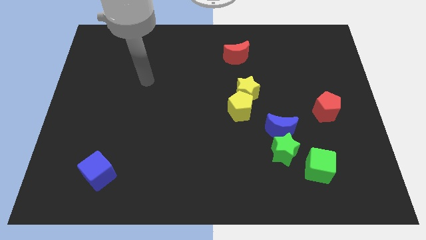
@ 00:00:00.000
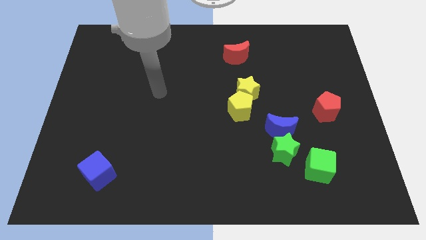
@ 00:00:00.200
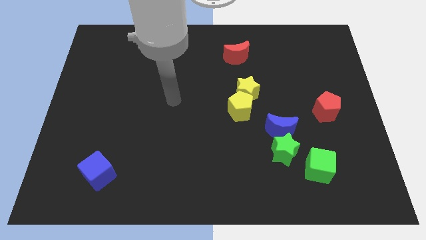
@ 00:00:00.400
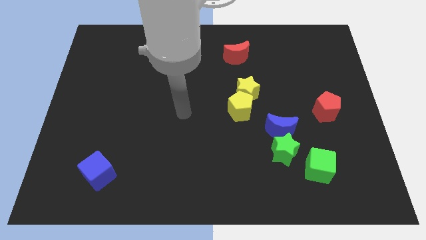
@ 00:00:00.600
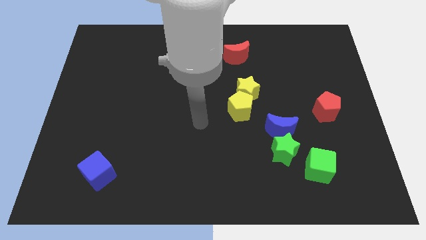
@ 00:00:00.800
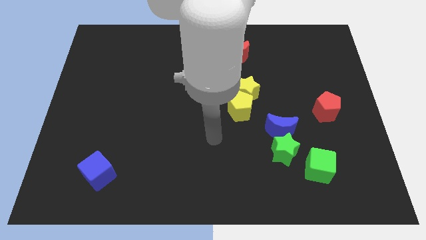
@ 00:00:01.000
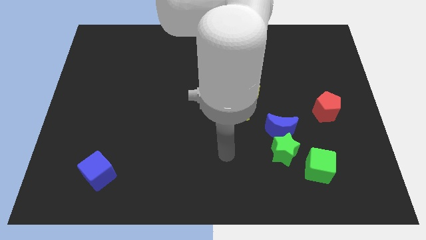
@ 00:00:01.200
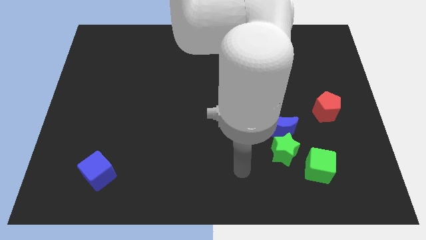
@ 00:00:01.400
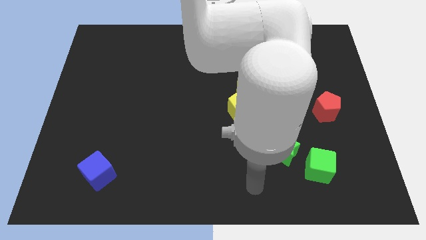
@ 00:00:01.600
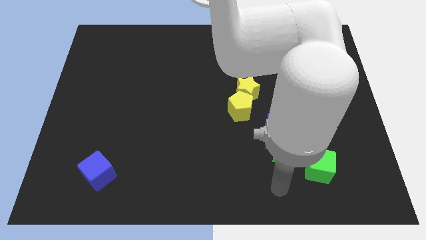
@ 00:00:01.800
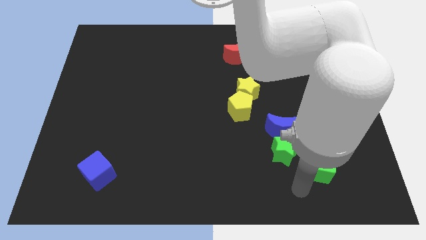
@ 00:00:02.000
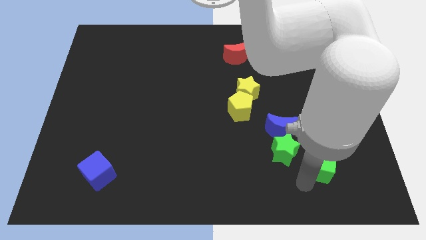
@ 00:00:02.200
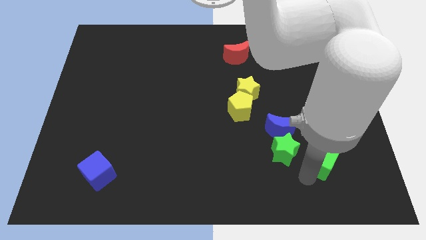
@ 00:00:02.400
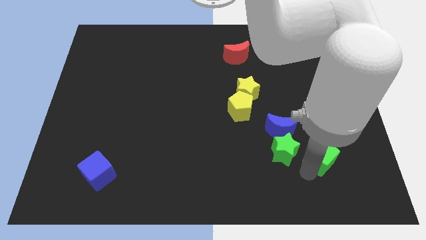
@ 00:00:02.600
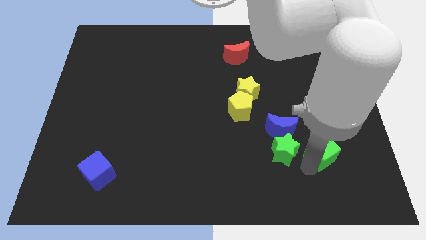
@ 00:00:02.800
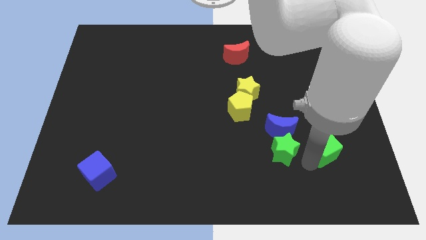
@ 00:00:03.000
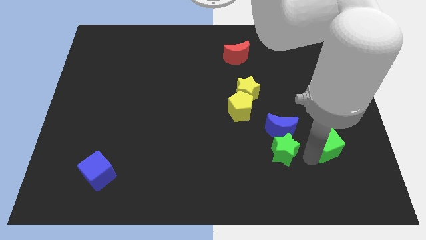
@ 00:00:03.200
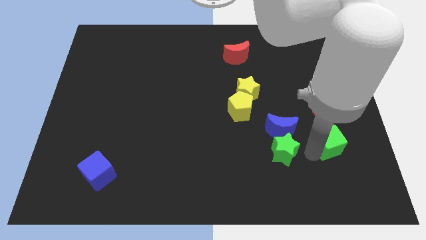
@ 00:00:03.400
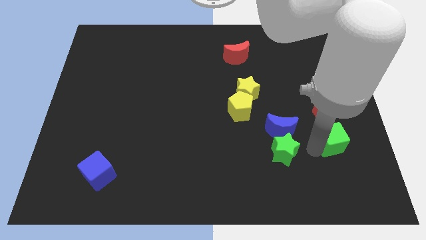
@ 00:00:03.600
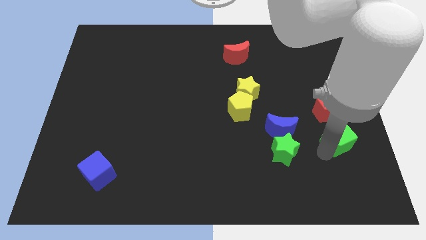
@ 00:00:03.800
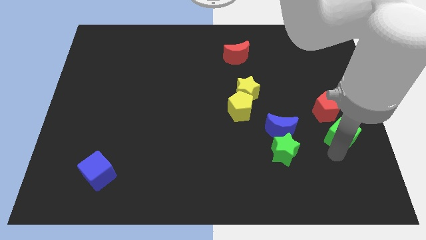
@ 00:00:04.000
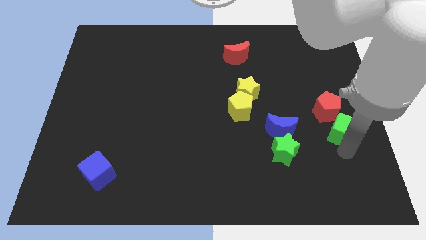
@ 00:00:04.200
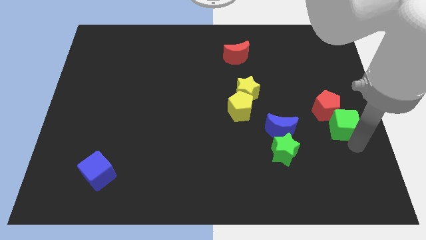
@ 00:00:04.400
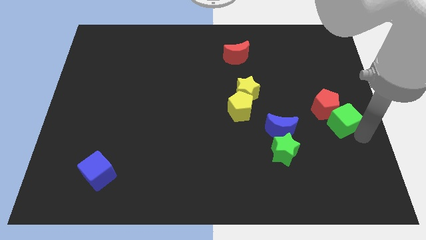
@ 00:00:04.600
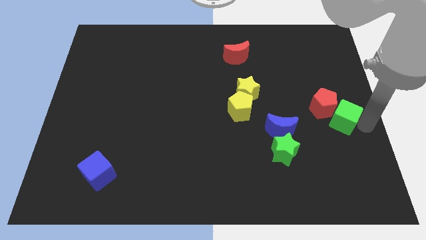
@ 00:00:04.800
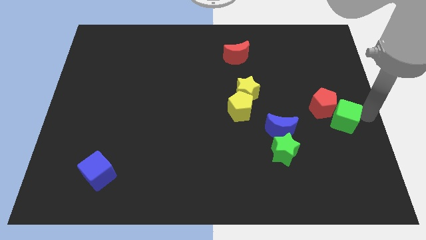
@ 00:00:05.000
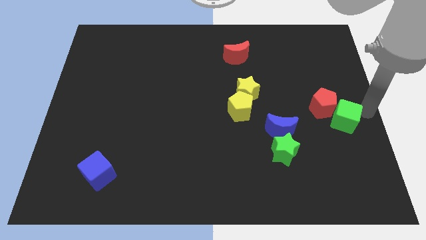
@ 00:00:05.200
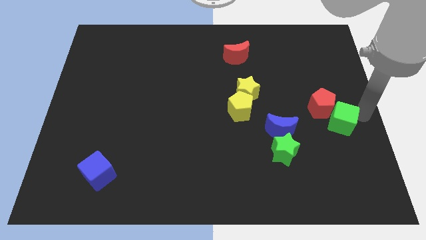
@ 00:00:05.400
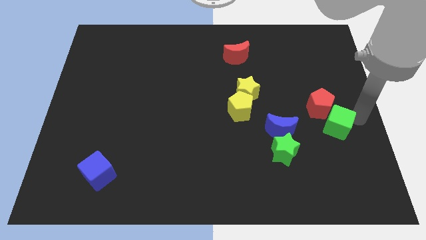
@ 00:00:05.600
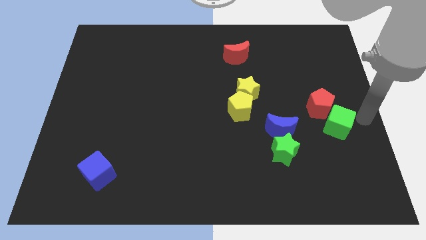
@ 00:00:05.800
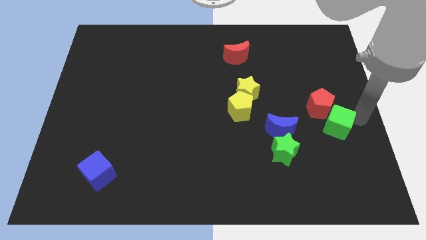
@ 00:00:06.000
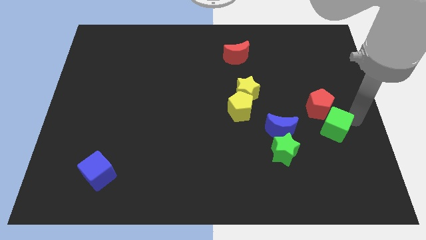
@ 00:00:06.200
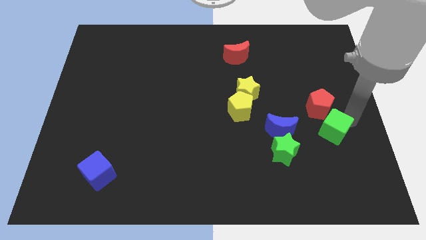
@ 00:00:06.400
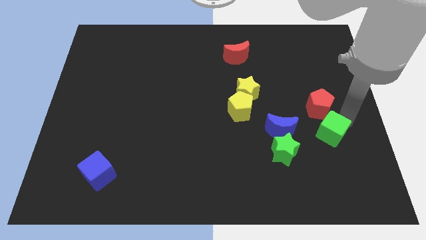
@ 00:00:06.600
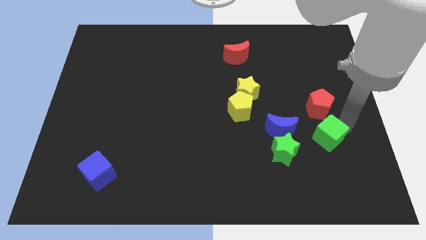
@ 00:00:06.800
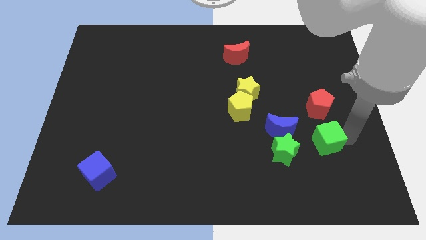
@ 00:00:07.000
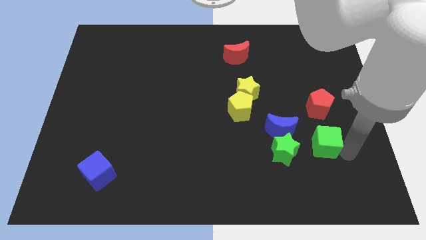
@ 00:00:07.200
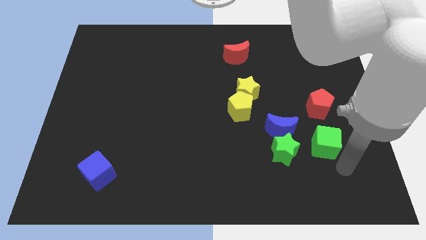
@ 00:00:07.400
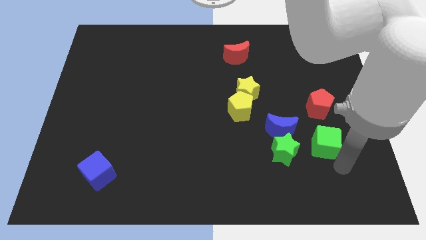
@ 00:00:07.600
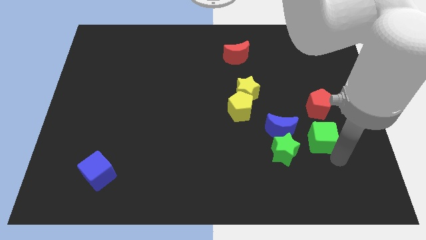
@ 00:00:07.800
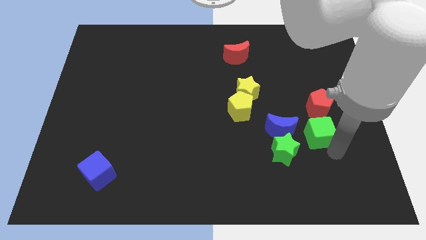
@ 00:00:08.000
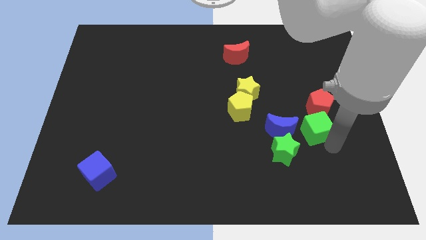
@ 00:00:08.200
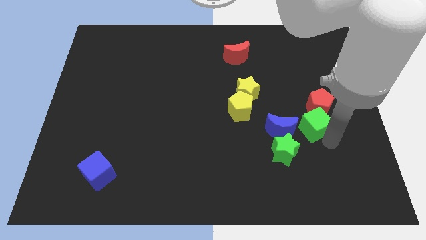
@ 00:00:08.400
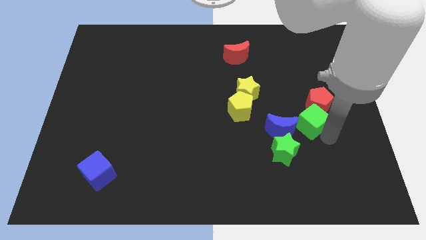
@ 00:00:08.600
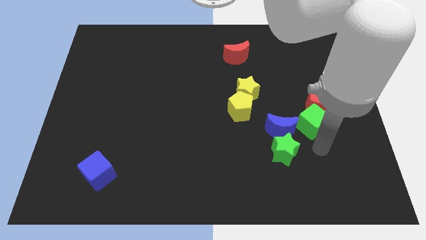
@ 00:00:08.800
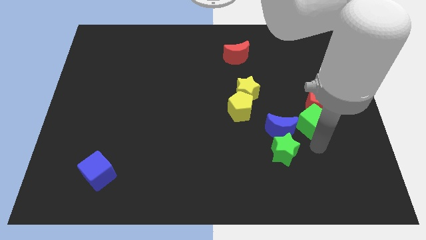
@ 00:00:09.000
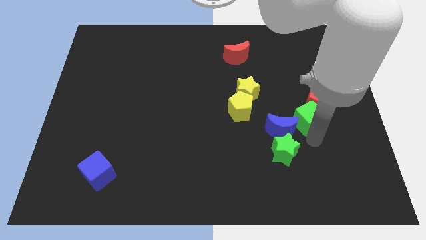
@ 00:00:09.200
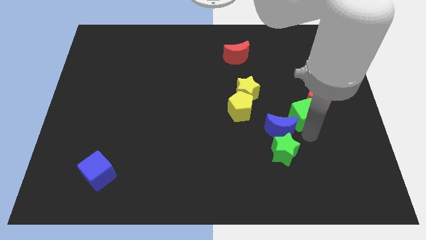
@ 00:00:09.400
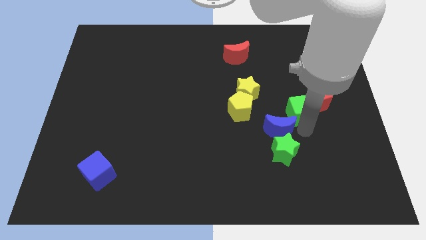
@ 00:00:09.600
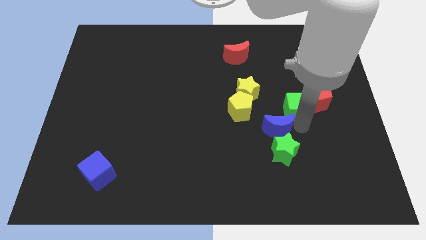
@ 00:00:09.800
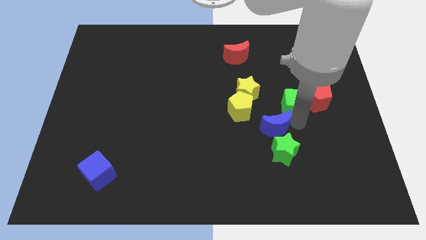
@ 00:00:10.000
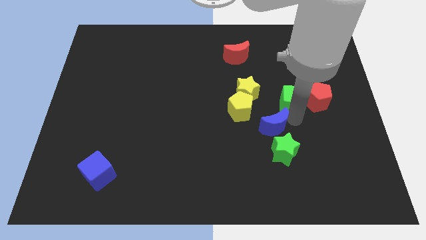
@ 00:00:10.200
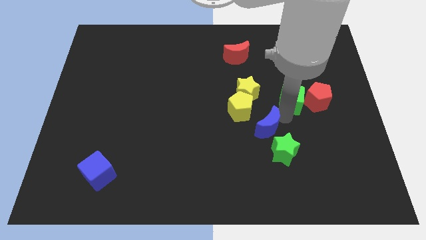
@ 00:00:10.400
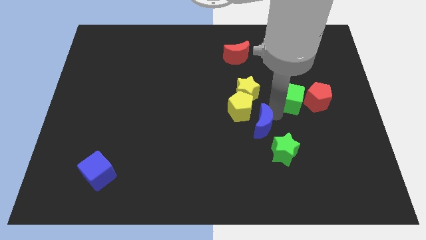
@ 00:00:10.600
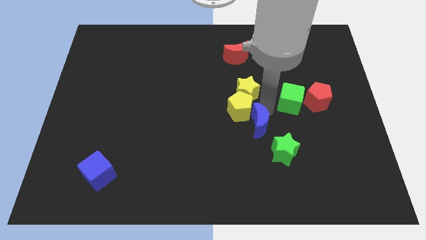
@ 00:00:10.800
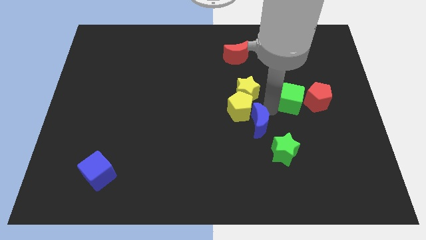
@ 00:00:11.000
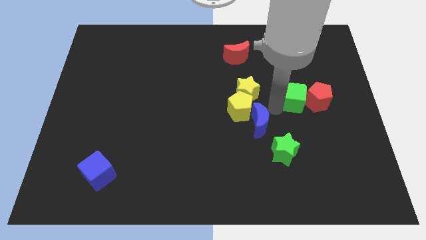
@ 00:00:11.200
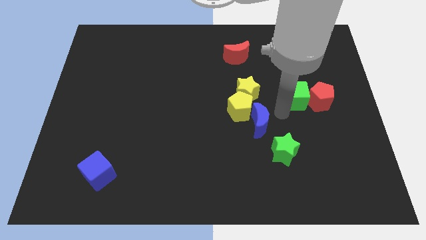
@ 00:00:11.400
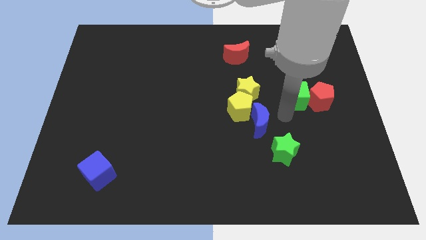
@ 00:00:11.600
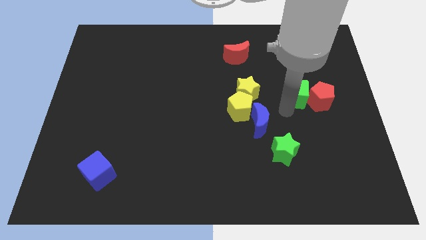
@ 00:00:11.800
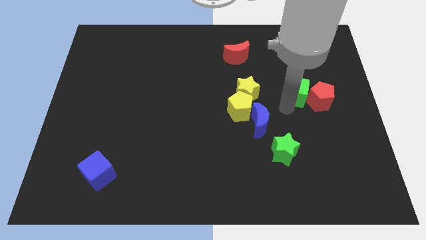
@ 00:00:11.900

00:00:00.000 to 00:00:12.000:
move the green cube up

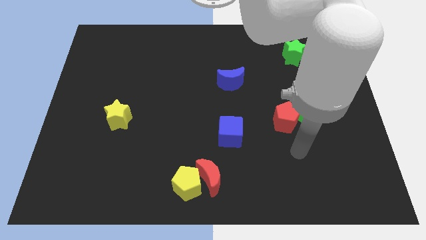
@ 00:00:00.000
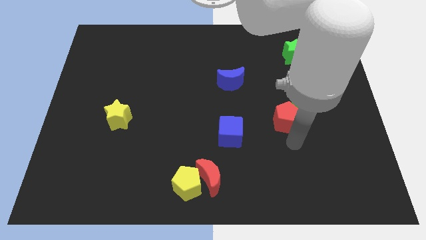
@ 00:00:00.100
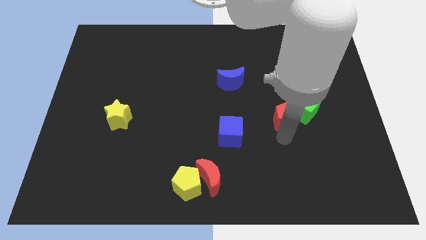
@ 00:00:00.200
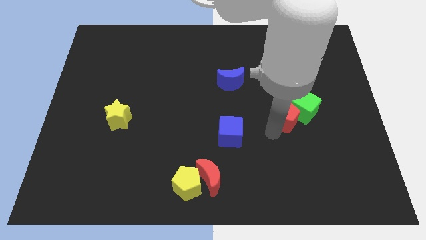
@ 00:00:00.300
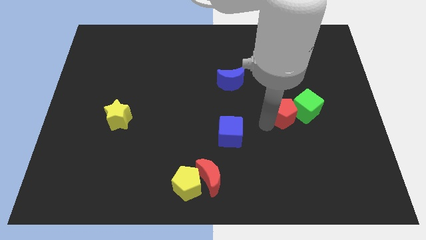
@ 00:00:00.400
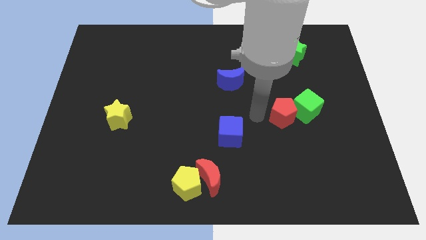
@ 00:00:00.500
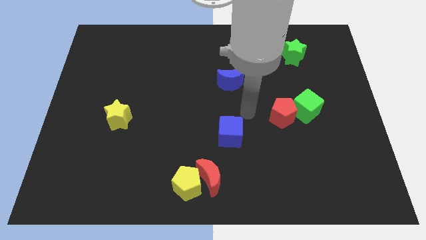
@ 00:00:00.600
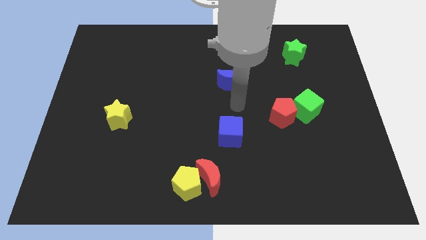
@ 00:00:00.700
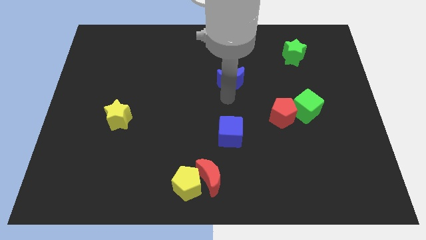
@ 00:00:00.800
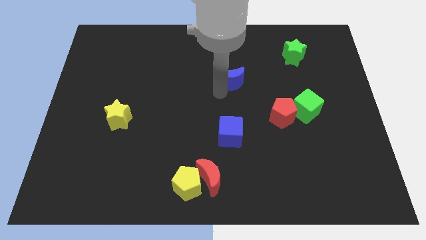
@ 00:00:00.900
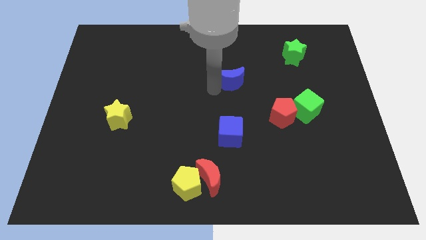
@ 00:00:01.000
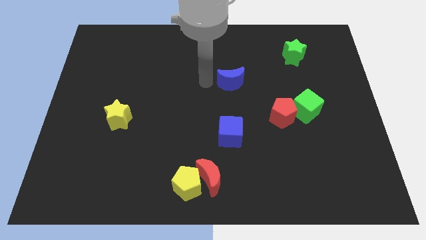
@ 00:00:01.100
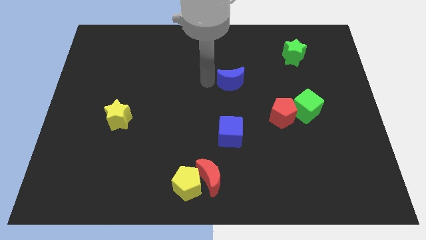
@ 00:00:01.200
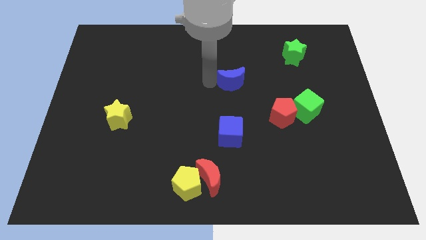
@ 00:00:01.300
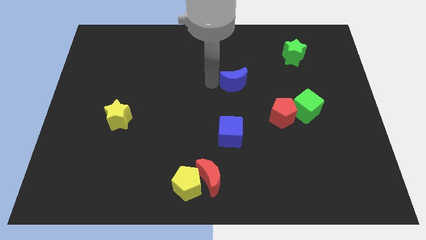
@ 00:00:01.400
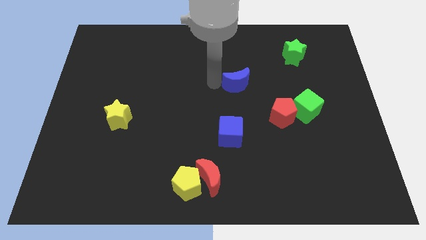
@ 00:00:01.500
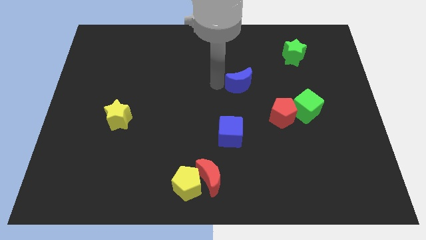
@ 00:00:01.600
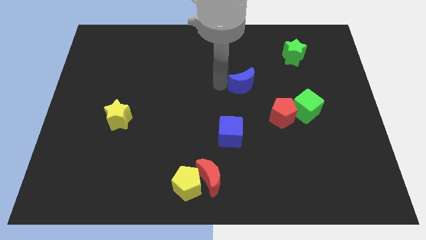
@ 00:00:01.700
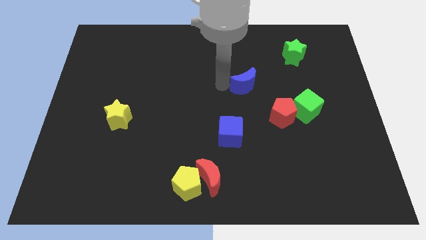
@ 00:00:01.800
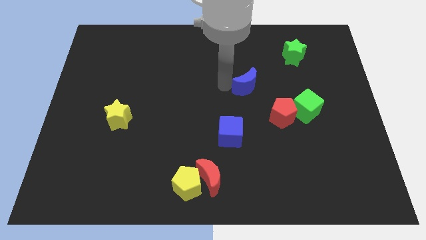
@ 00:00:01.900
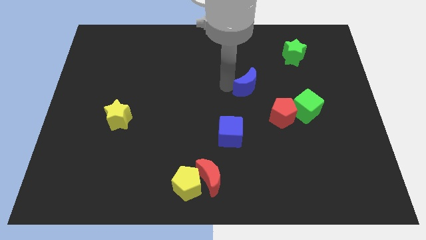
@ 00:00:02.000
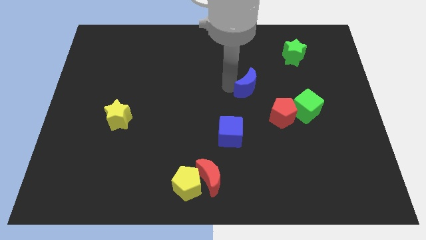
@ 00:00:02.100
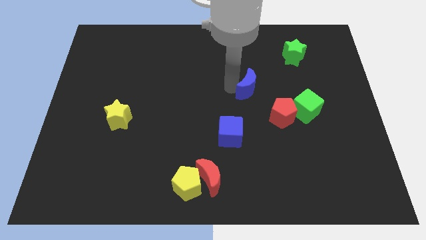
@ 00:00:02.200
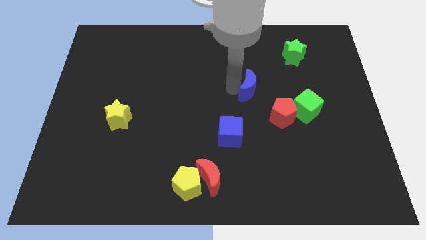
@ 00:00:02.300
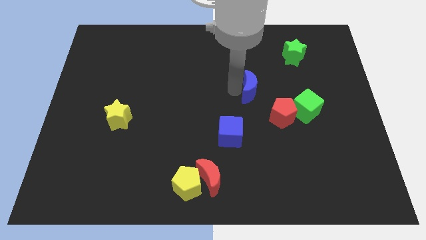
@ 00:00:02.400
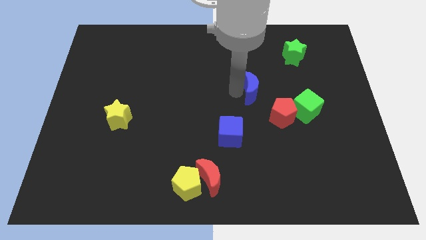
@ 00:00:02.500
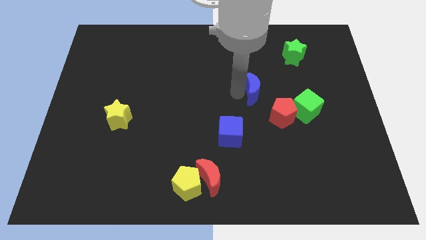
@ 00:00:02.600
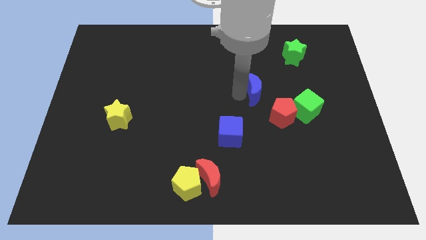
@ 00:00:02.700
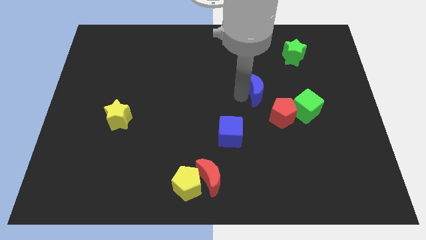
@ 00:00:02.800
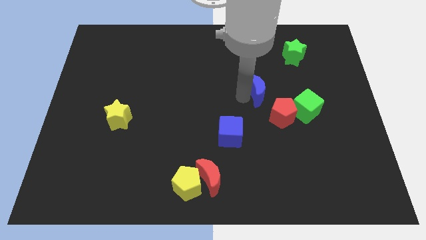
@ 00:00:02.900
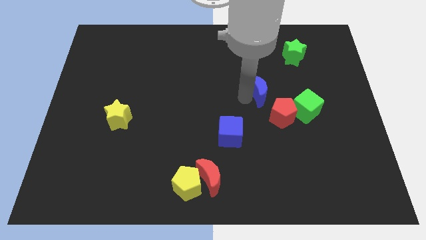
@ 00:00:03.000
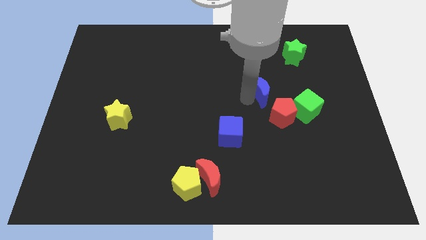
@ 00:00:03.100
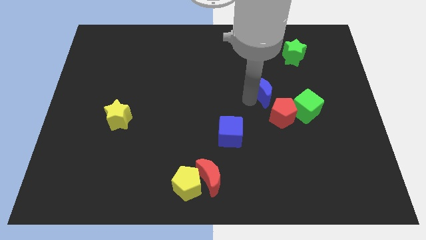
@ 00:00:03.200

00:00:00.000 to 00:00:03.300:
push the blue moon right a little bit
